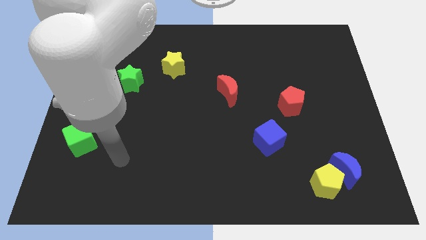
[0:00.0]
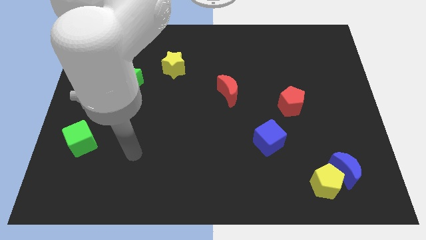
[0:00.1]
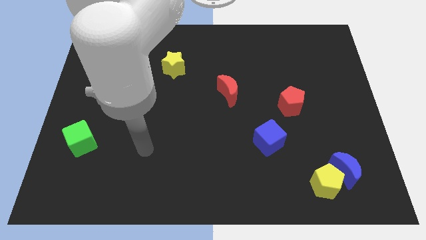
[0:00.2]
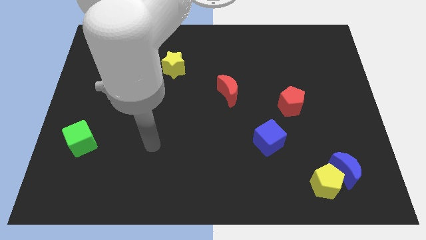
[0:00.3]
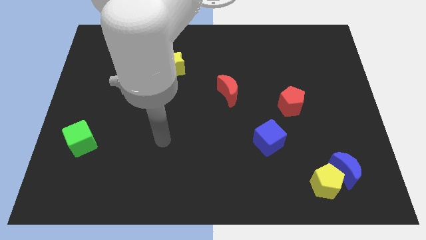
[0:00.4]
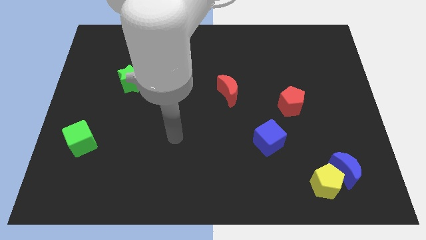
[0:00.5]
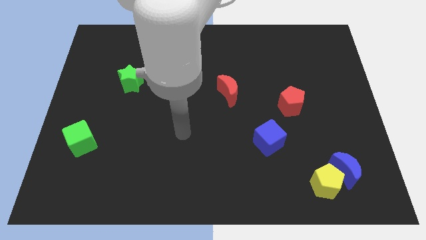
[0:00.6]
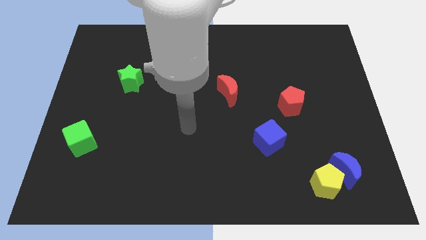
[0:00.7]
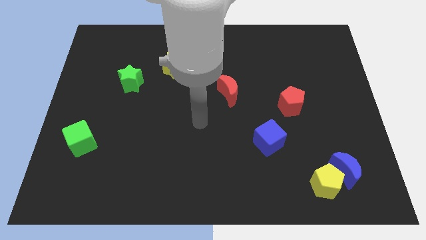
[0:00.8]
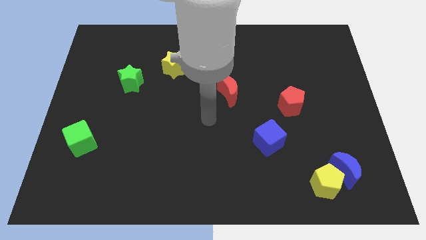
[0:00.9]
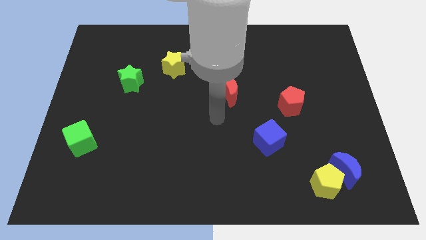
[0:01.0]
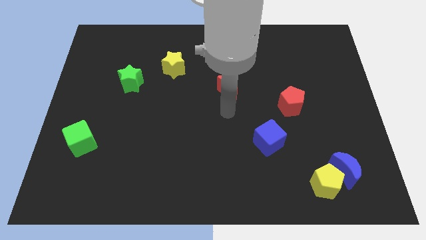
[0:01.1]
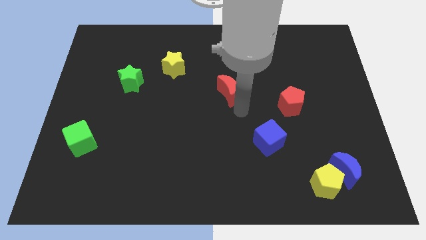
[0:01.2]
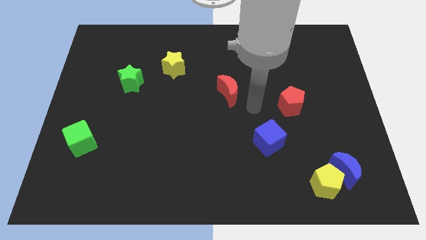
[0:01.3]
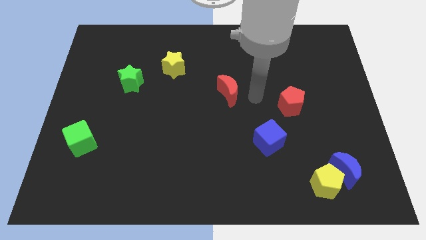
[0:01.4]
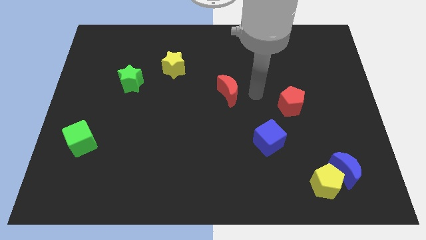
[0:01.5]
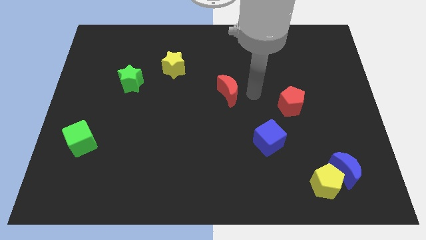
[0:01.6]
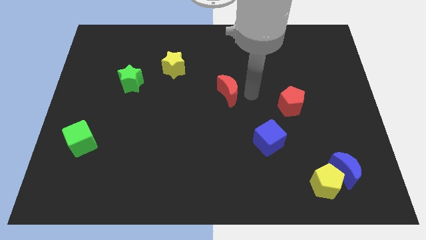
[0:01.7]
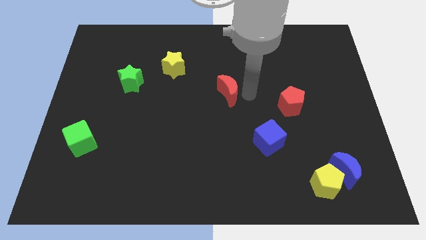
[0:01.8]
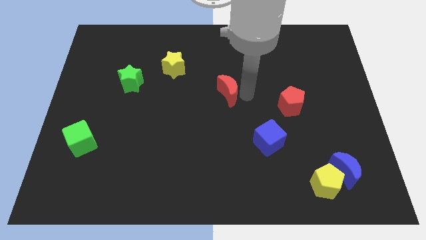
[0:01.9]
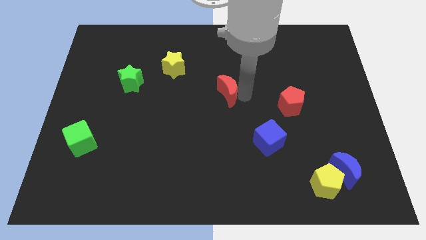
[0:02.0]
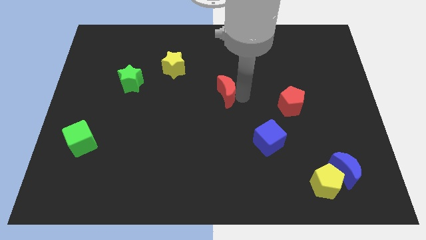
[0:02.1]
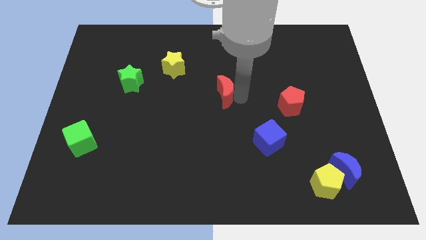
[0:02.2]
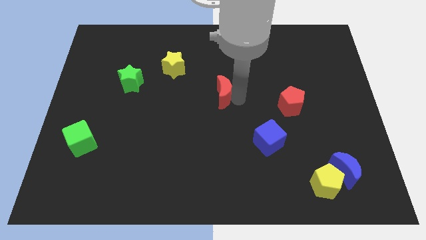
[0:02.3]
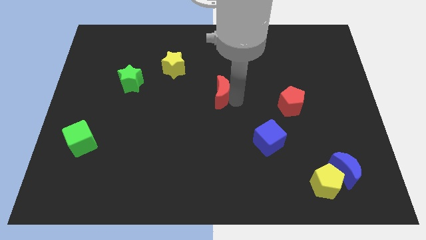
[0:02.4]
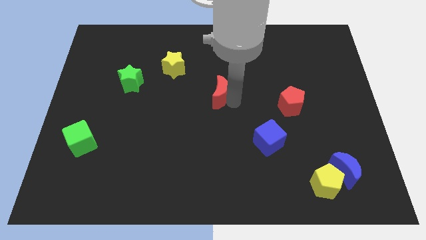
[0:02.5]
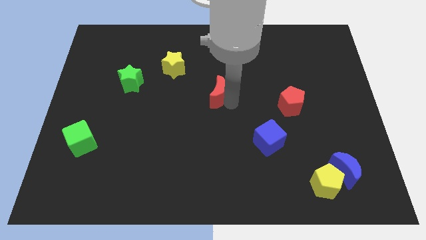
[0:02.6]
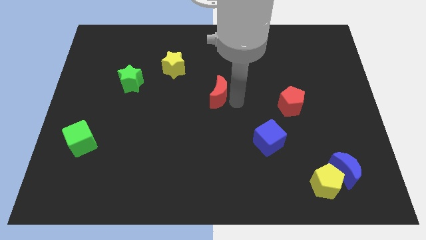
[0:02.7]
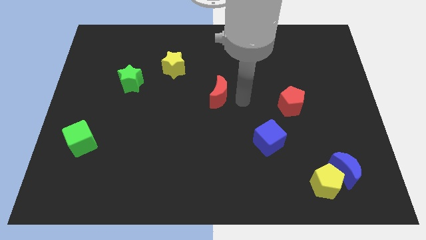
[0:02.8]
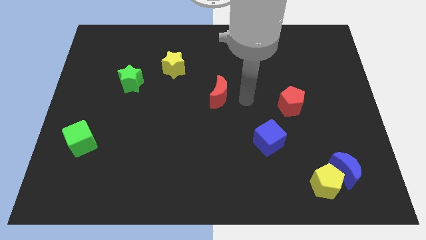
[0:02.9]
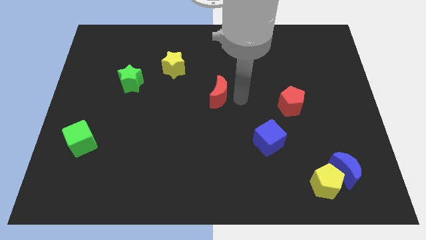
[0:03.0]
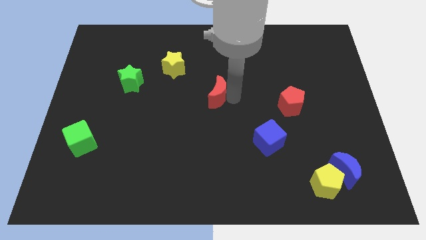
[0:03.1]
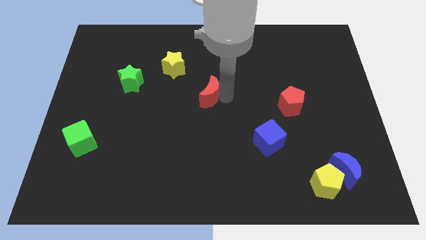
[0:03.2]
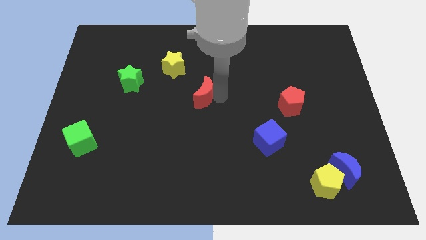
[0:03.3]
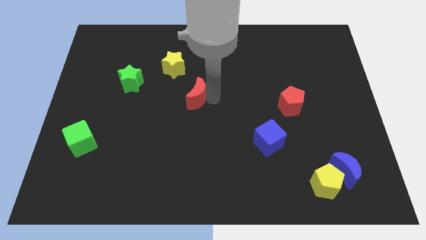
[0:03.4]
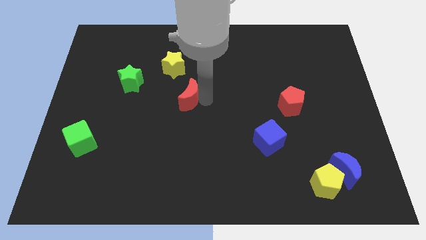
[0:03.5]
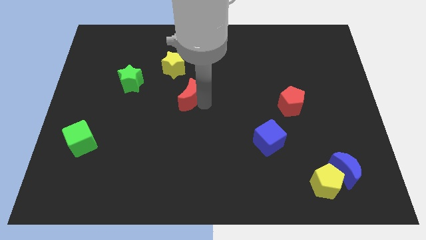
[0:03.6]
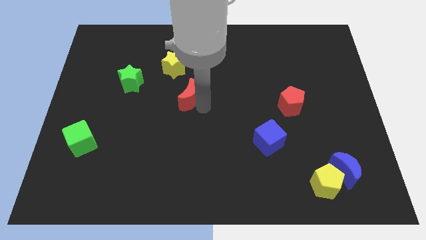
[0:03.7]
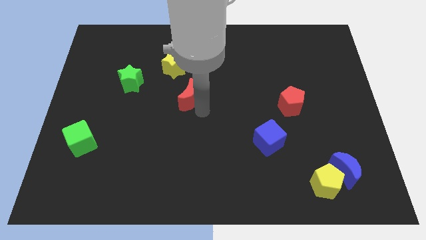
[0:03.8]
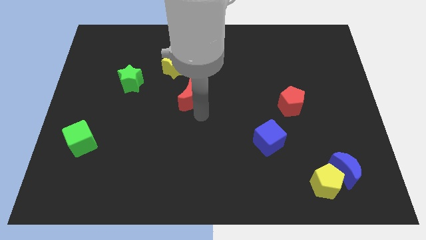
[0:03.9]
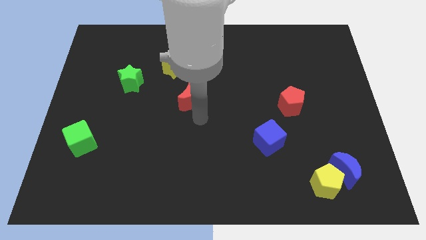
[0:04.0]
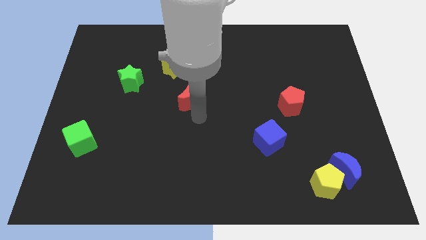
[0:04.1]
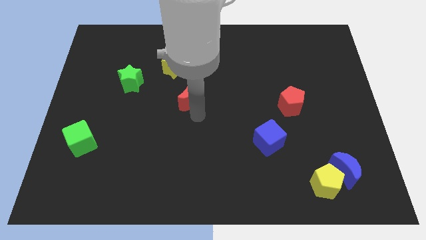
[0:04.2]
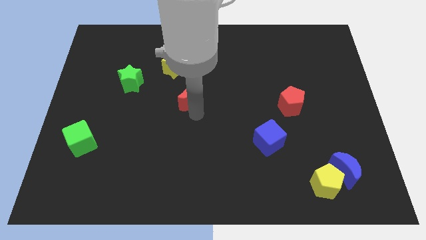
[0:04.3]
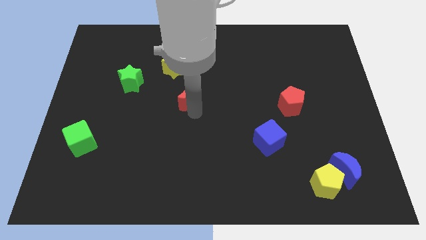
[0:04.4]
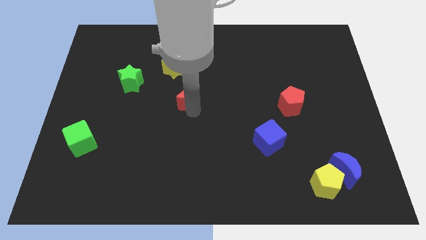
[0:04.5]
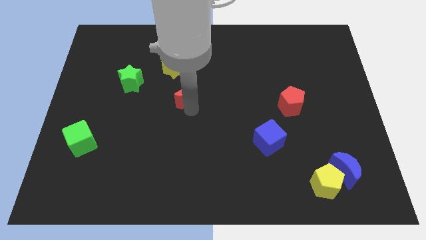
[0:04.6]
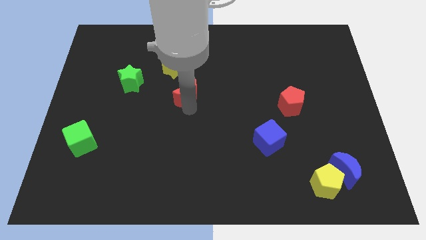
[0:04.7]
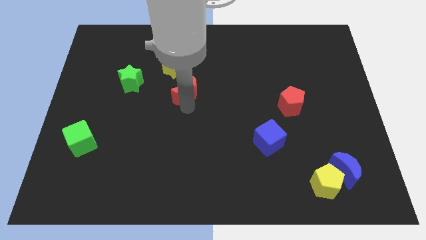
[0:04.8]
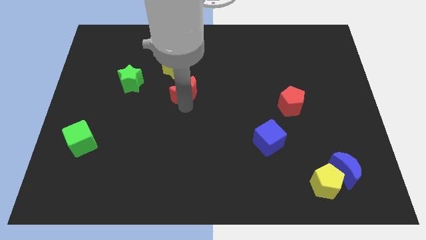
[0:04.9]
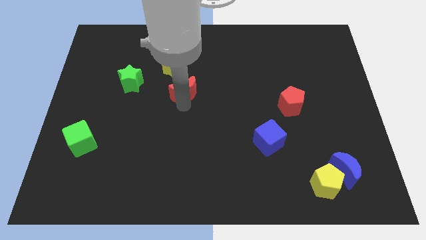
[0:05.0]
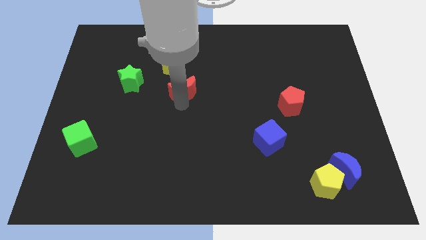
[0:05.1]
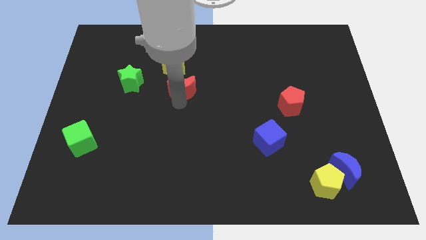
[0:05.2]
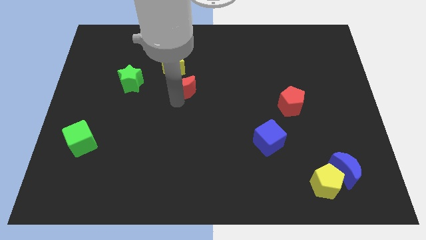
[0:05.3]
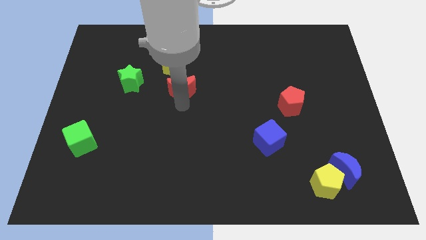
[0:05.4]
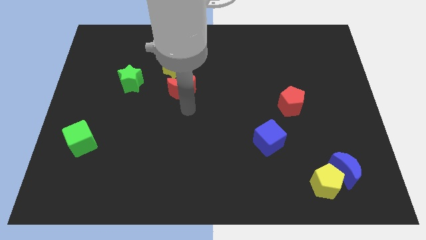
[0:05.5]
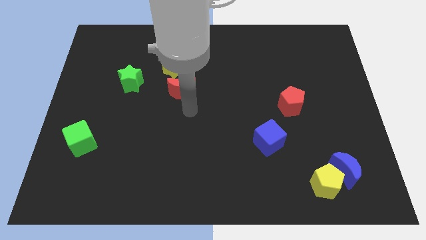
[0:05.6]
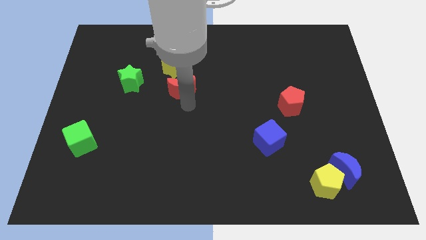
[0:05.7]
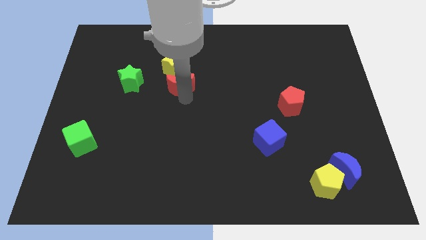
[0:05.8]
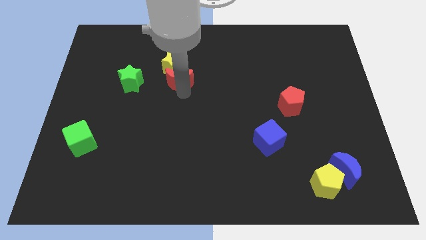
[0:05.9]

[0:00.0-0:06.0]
move the red moon close to the yellow star

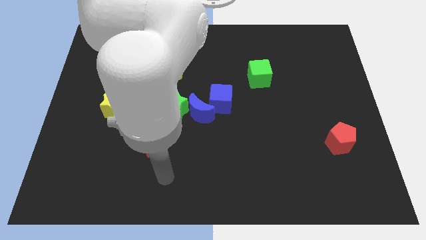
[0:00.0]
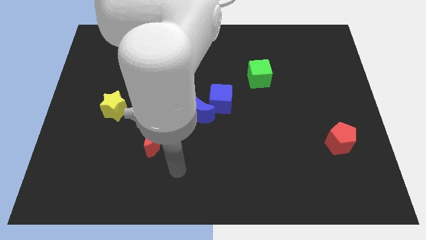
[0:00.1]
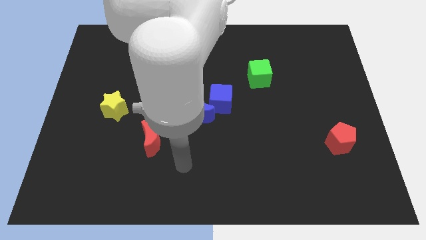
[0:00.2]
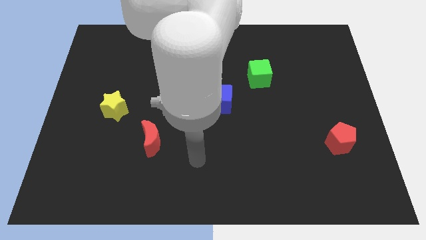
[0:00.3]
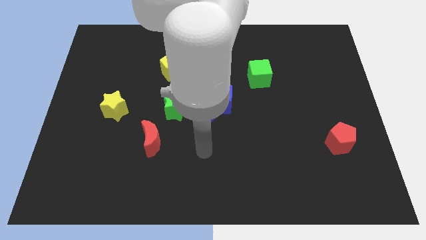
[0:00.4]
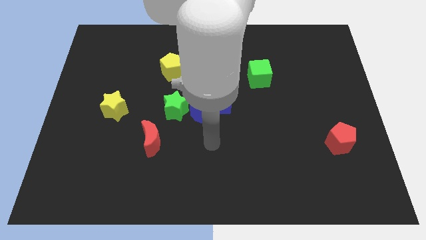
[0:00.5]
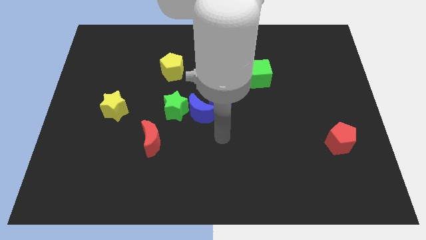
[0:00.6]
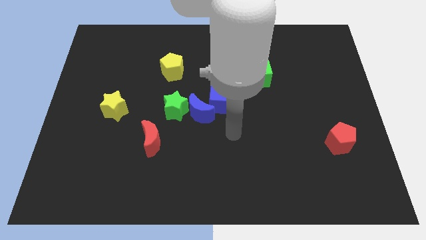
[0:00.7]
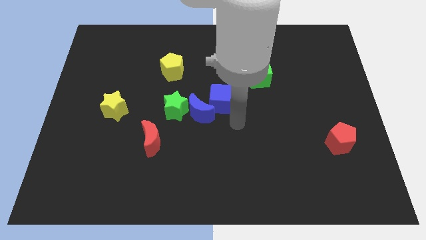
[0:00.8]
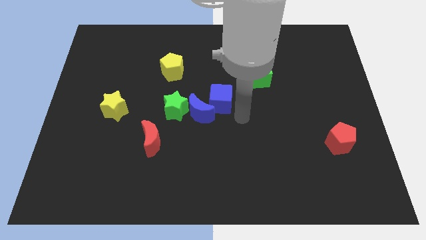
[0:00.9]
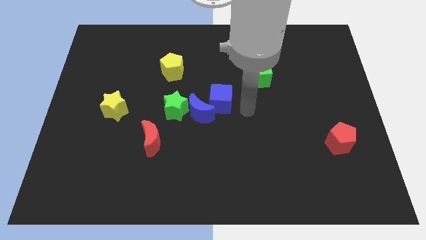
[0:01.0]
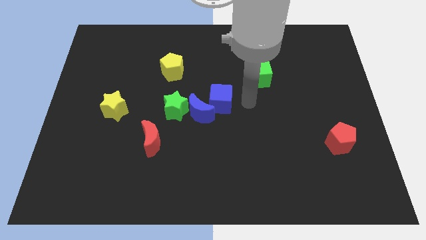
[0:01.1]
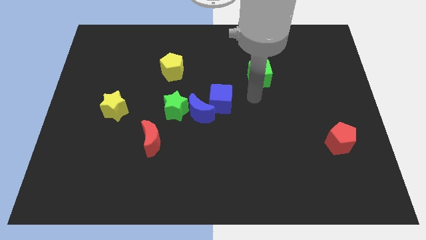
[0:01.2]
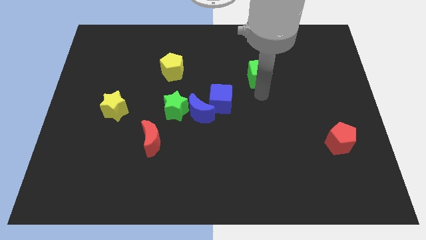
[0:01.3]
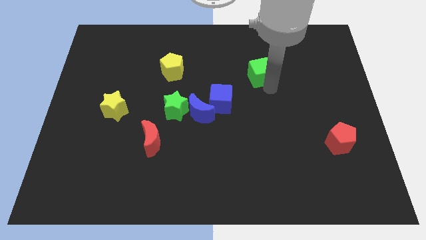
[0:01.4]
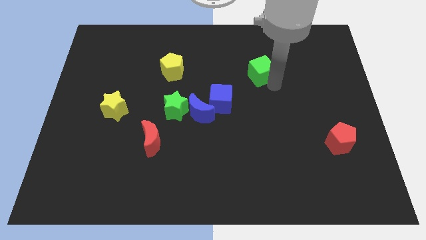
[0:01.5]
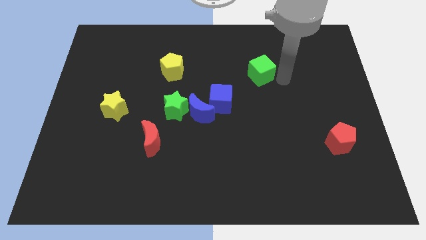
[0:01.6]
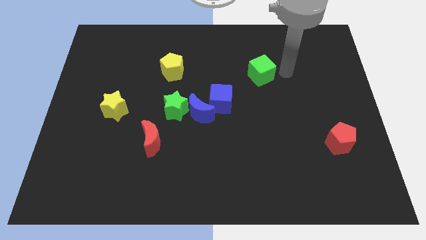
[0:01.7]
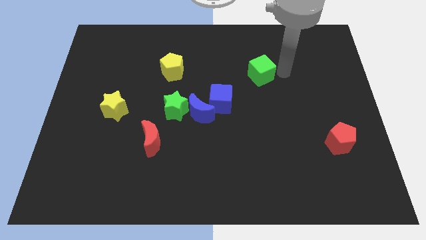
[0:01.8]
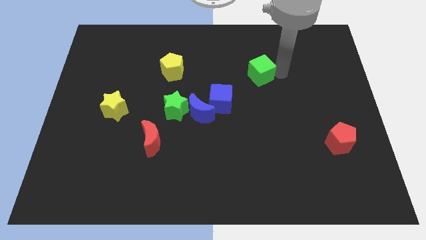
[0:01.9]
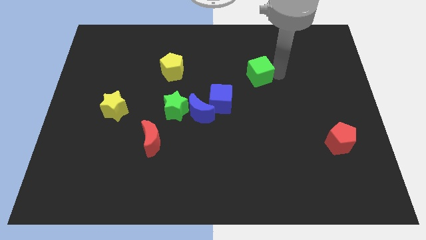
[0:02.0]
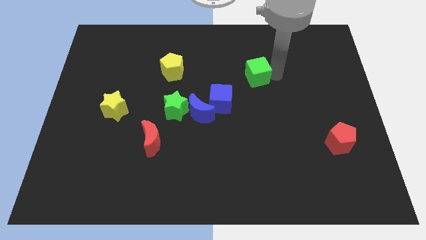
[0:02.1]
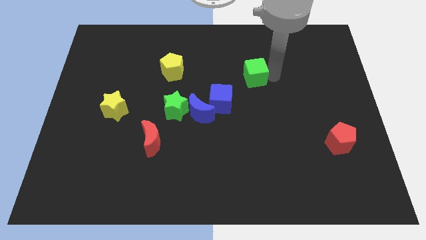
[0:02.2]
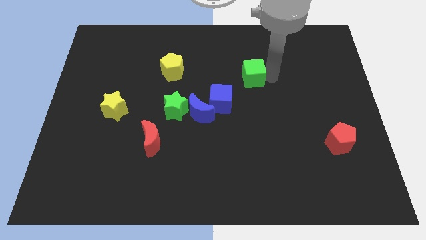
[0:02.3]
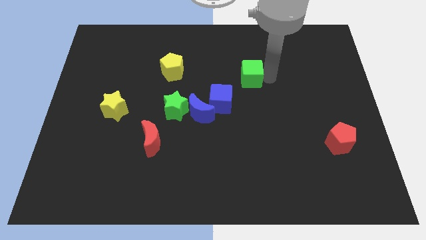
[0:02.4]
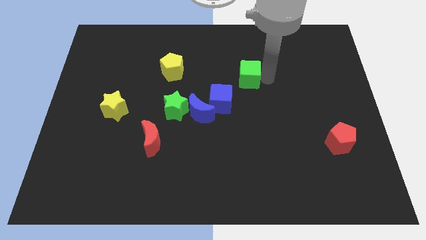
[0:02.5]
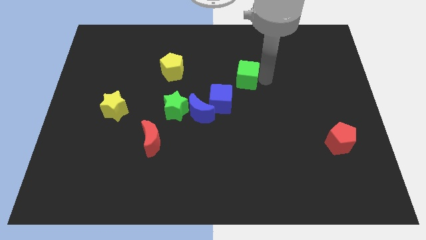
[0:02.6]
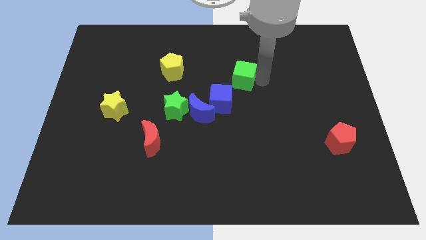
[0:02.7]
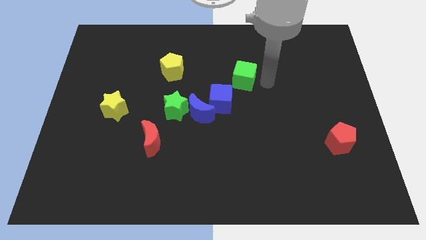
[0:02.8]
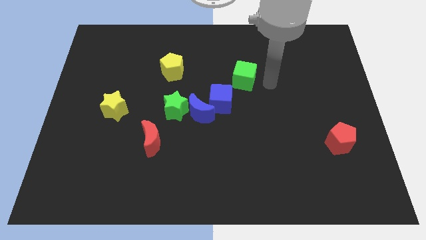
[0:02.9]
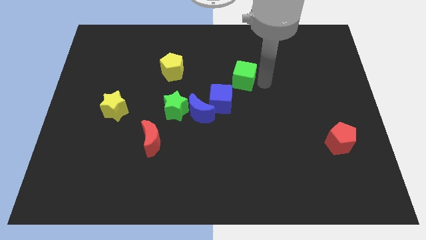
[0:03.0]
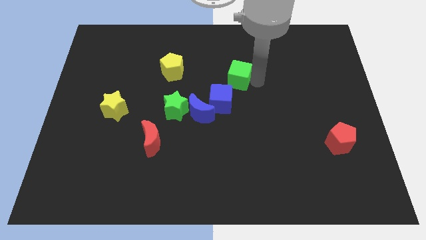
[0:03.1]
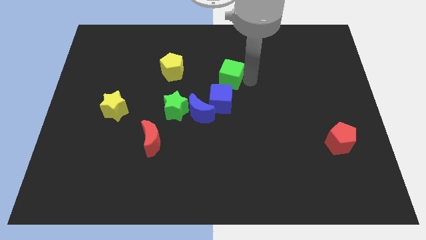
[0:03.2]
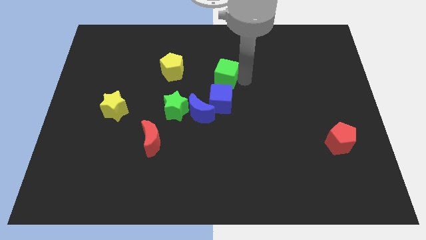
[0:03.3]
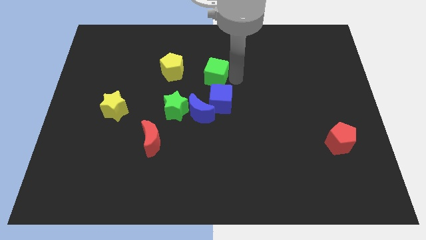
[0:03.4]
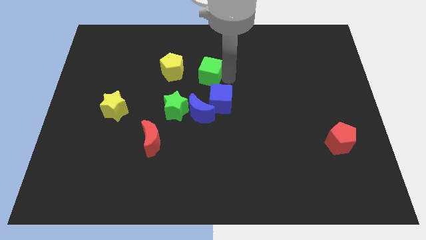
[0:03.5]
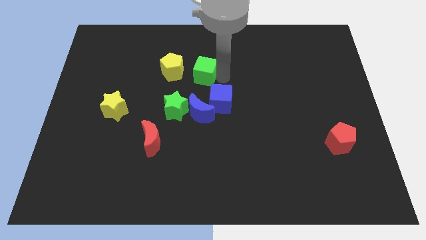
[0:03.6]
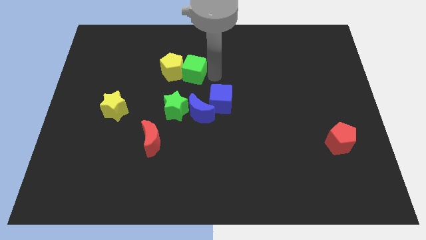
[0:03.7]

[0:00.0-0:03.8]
push the green cube close to the yellow pentagon
